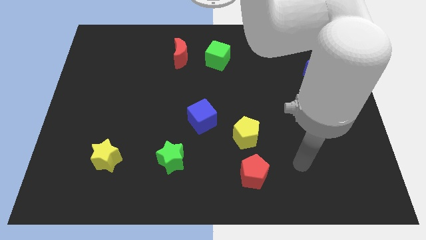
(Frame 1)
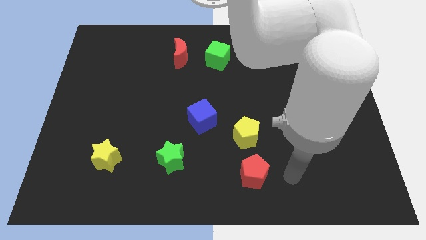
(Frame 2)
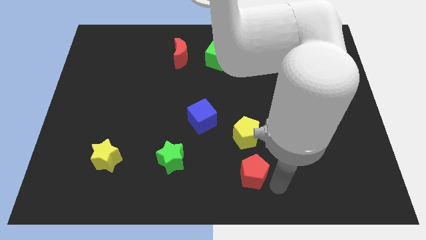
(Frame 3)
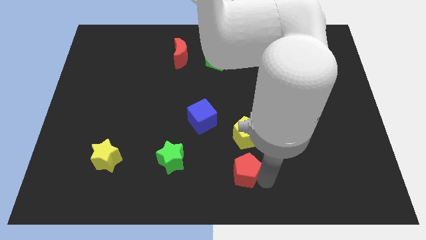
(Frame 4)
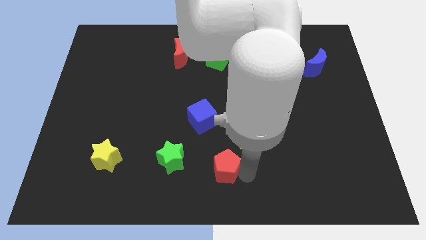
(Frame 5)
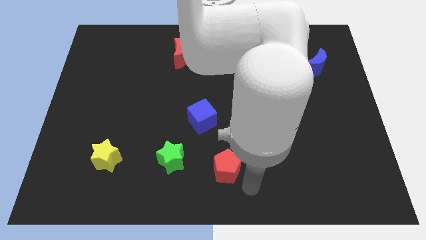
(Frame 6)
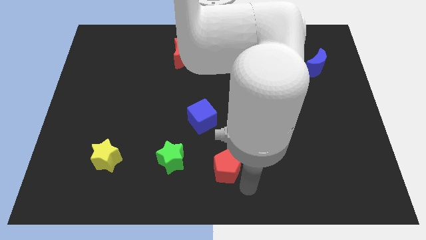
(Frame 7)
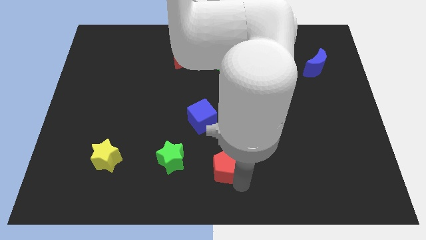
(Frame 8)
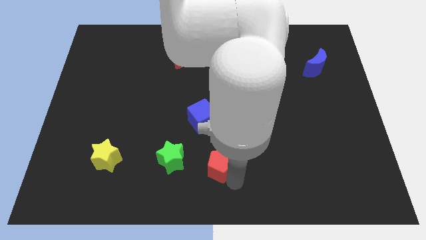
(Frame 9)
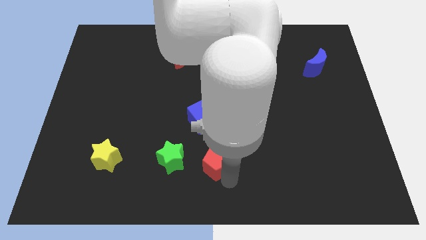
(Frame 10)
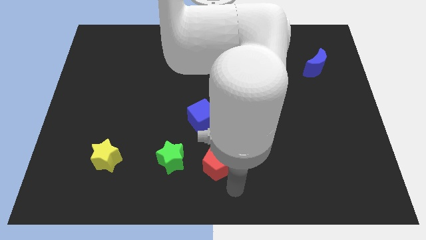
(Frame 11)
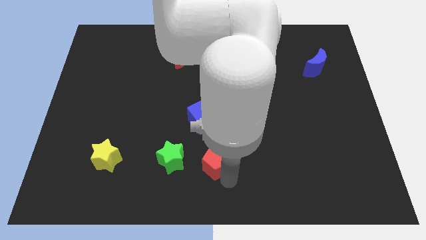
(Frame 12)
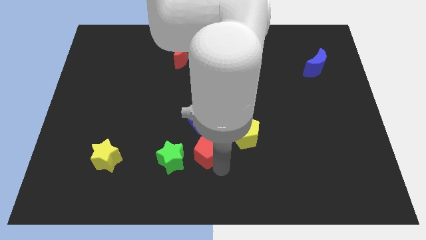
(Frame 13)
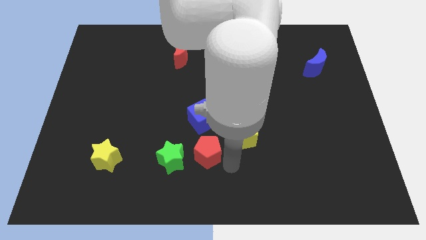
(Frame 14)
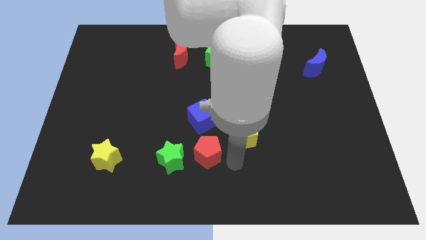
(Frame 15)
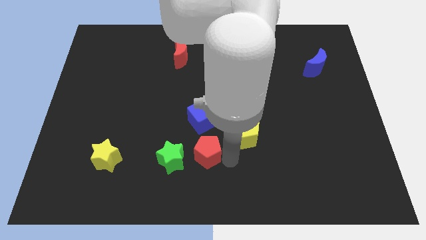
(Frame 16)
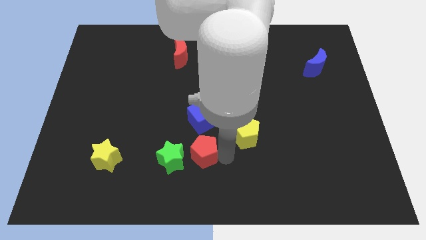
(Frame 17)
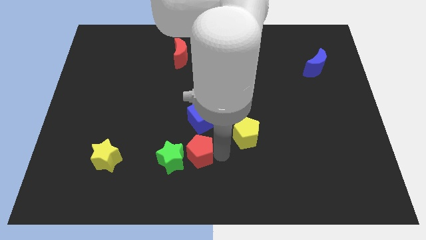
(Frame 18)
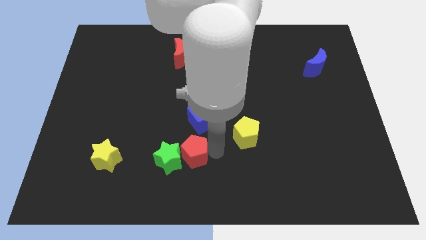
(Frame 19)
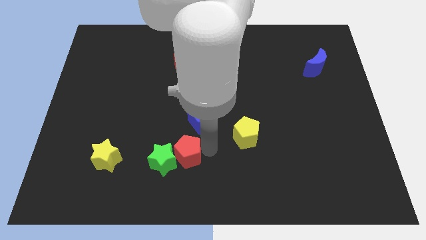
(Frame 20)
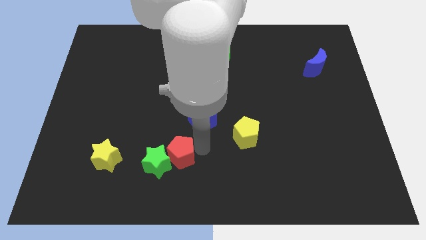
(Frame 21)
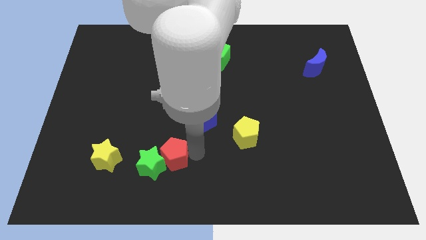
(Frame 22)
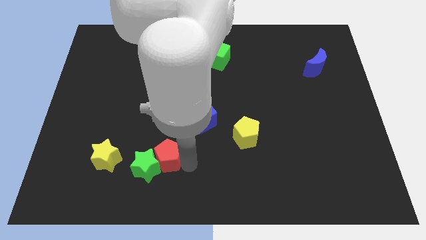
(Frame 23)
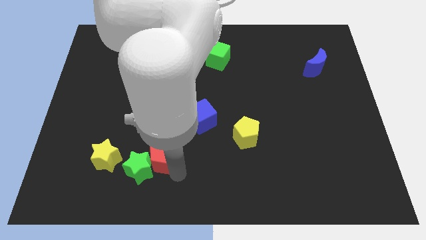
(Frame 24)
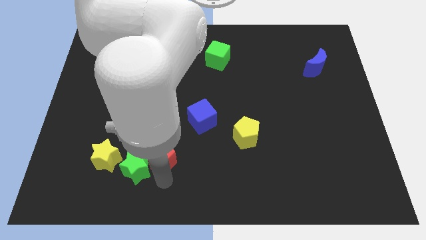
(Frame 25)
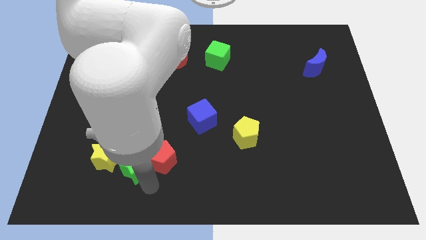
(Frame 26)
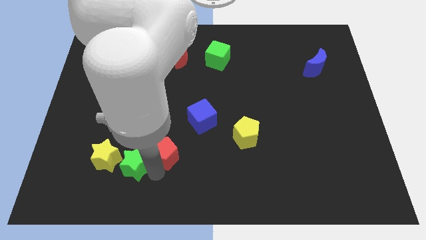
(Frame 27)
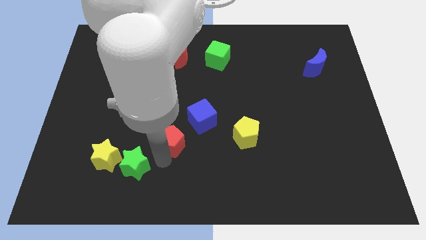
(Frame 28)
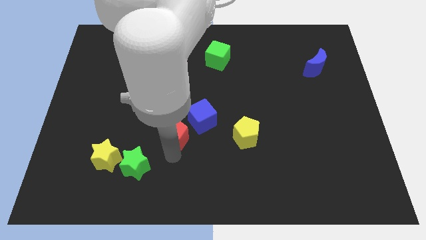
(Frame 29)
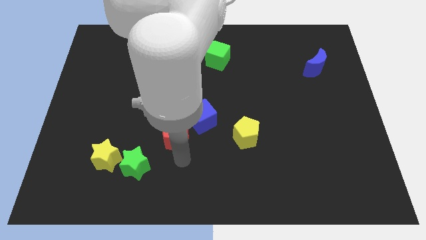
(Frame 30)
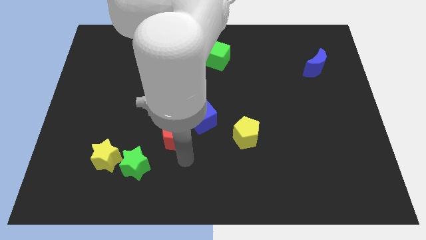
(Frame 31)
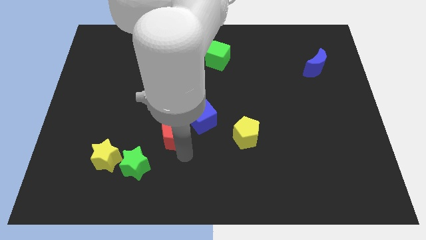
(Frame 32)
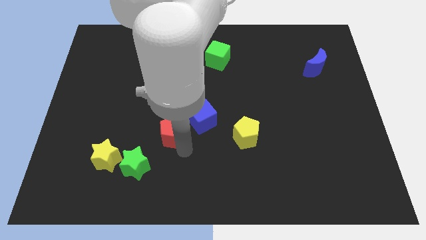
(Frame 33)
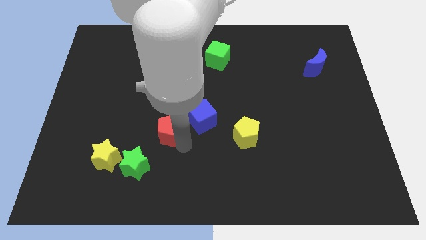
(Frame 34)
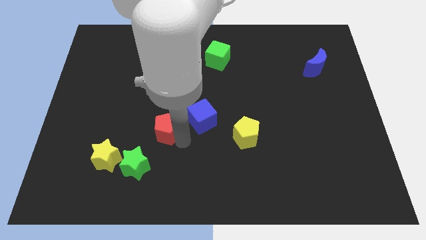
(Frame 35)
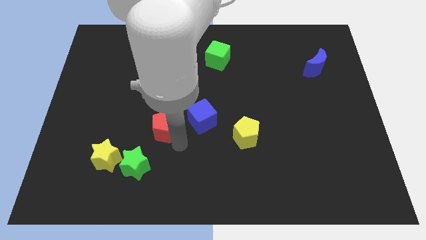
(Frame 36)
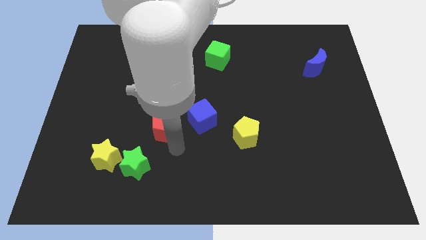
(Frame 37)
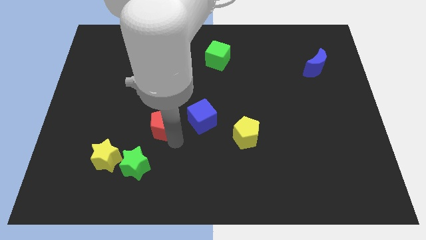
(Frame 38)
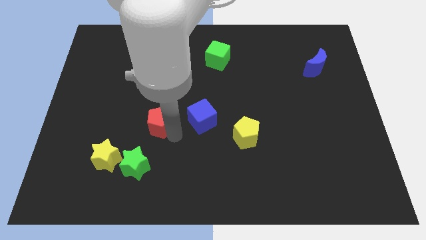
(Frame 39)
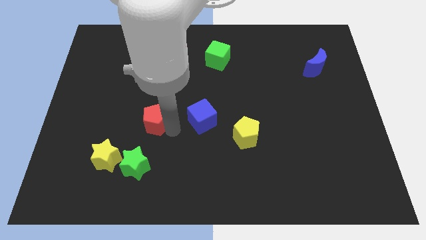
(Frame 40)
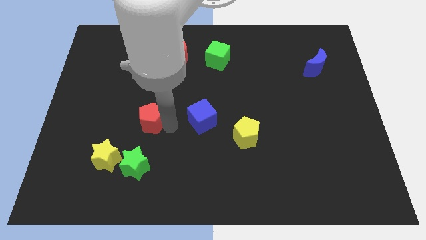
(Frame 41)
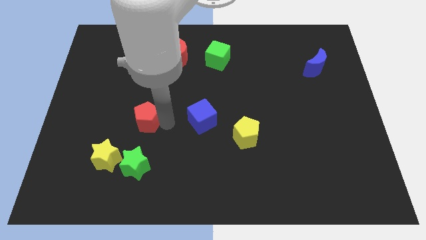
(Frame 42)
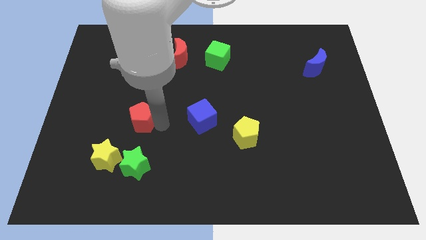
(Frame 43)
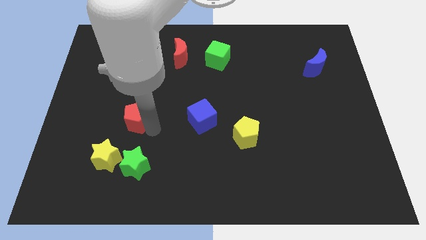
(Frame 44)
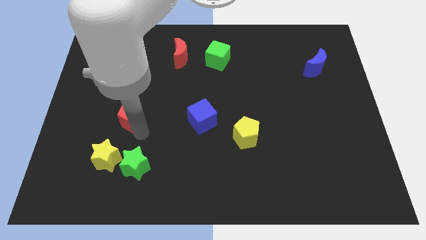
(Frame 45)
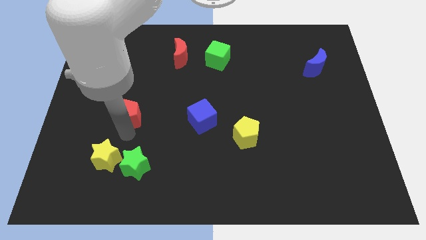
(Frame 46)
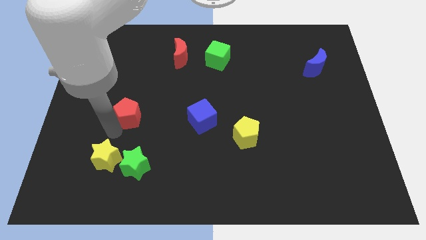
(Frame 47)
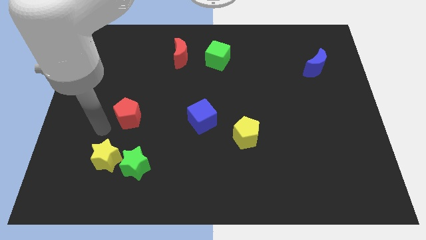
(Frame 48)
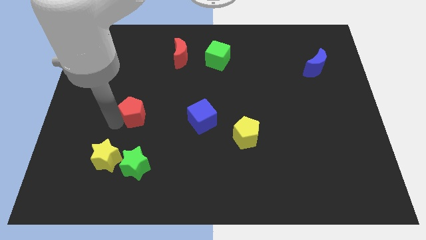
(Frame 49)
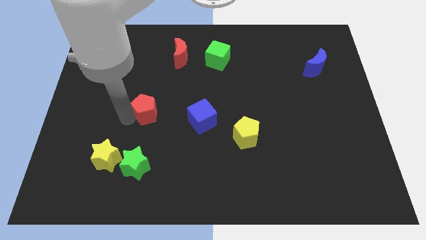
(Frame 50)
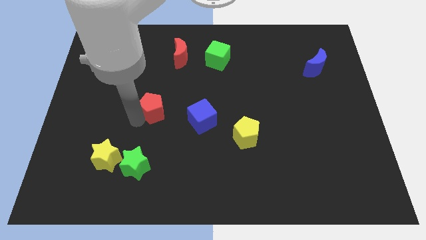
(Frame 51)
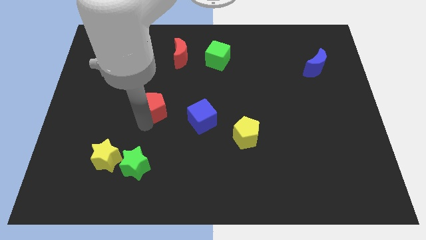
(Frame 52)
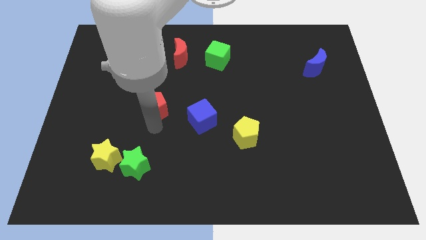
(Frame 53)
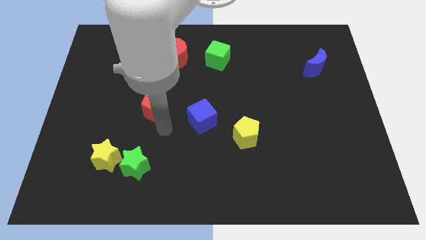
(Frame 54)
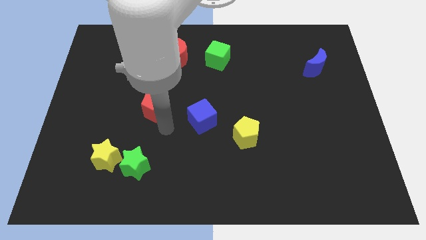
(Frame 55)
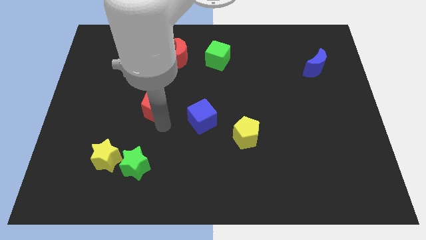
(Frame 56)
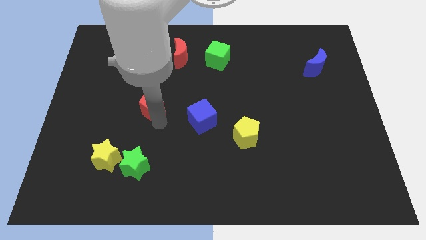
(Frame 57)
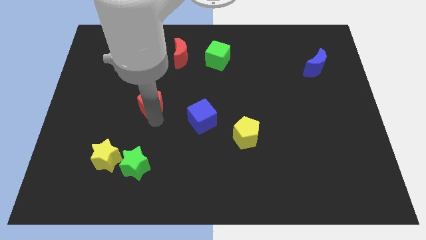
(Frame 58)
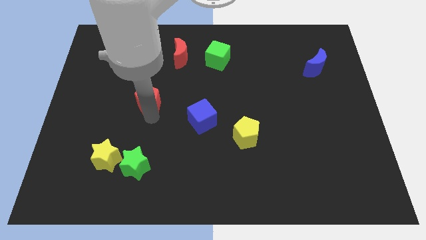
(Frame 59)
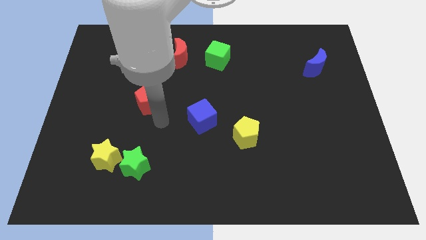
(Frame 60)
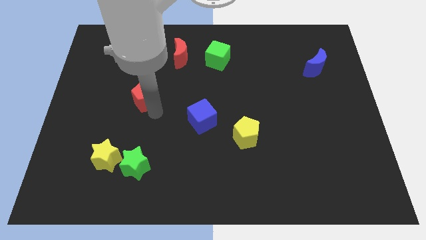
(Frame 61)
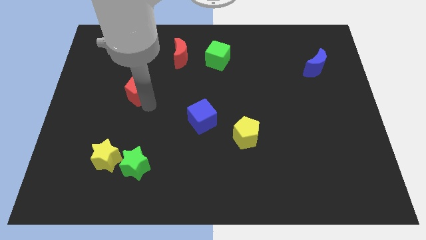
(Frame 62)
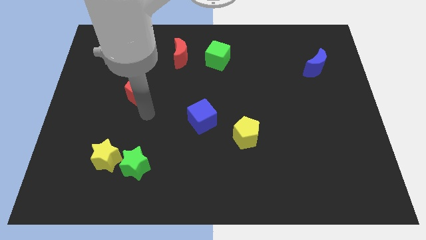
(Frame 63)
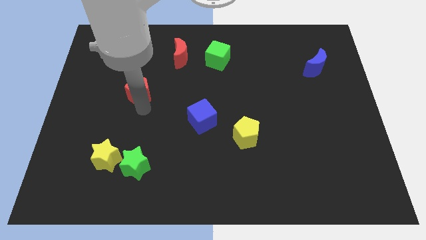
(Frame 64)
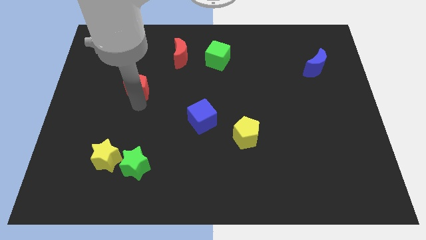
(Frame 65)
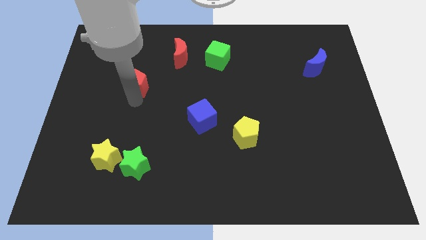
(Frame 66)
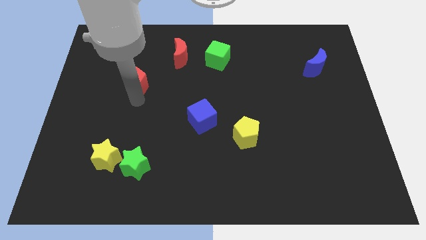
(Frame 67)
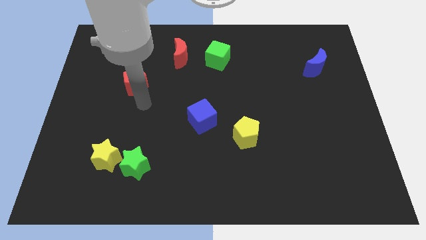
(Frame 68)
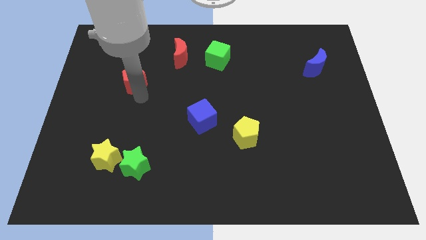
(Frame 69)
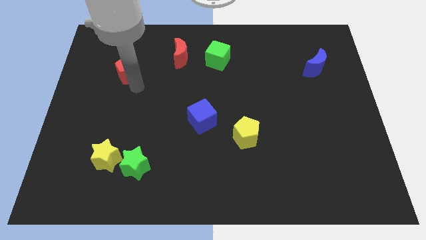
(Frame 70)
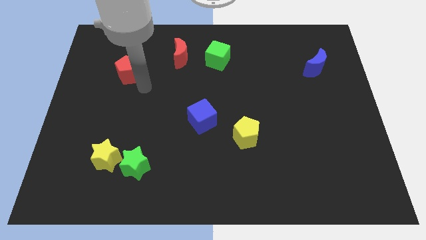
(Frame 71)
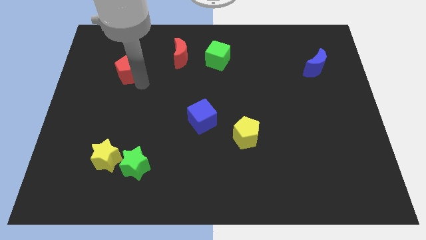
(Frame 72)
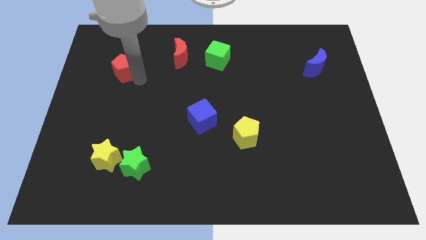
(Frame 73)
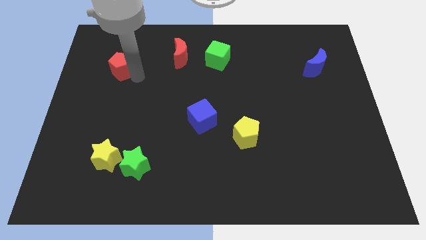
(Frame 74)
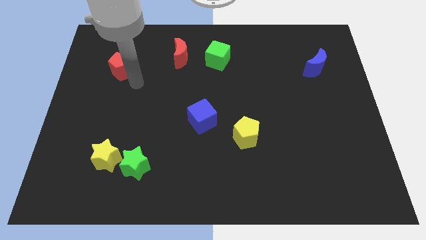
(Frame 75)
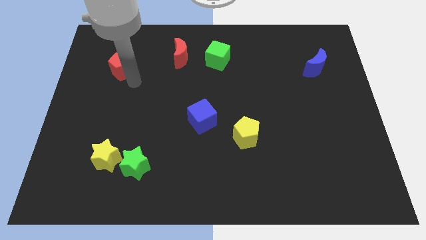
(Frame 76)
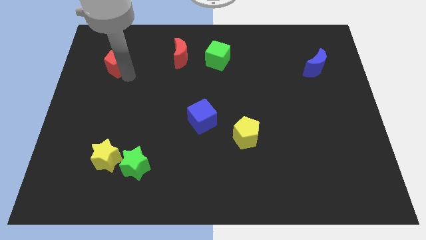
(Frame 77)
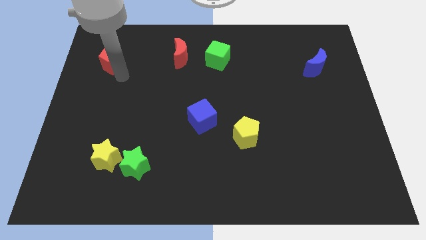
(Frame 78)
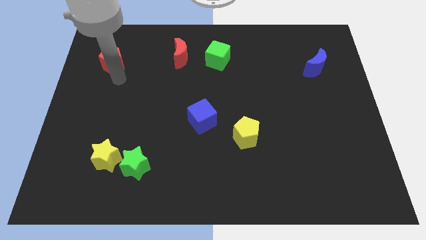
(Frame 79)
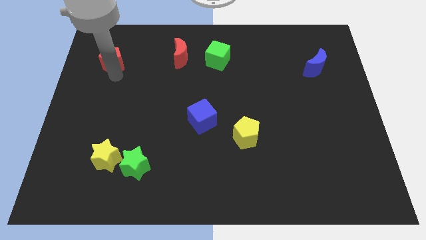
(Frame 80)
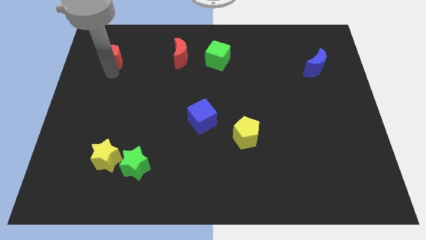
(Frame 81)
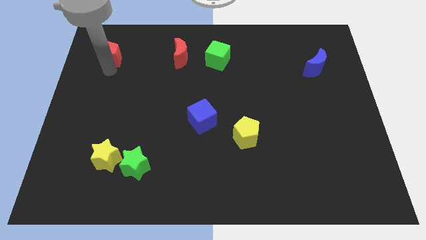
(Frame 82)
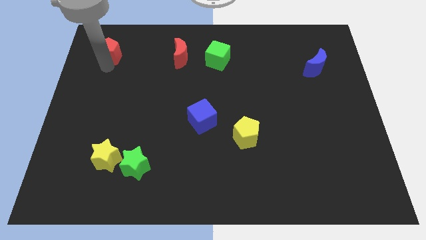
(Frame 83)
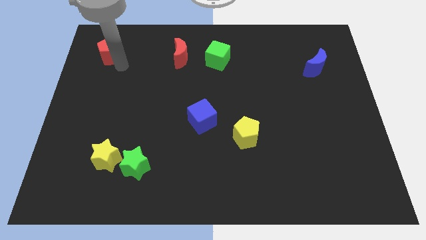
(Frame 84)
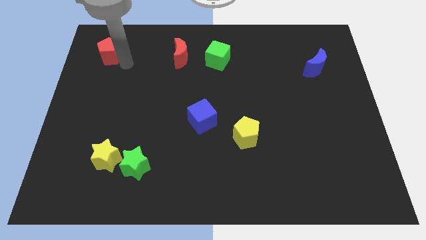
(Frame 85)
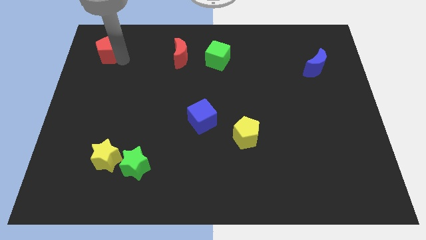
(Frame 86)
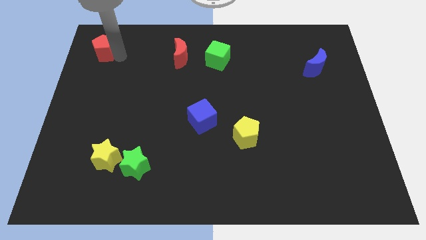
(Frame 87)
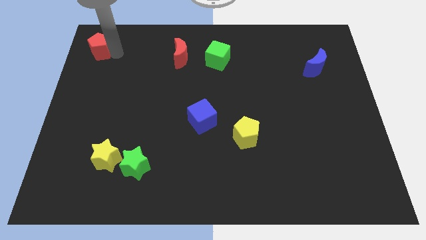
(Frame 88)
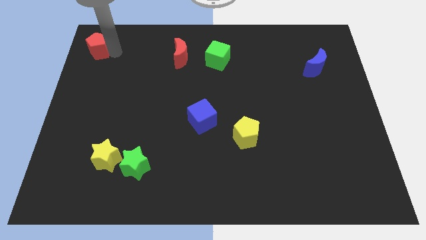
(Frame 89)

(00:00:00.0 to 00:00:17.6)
move the red pentagon to the top left corner
